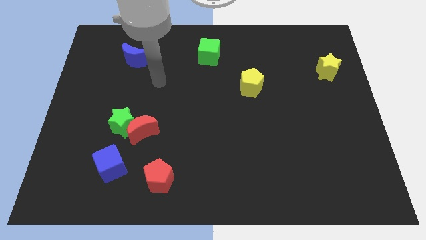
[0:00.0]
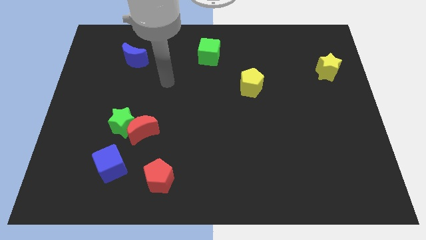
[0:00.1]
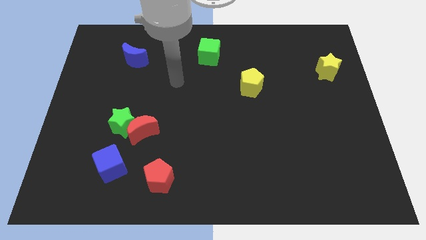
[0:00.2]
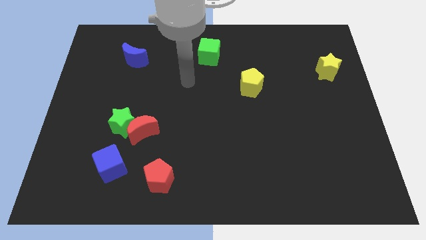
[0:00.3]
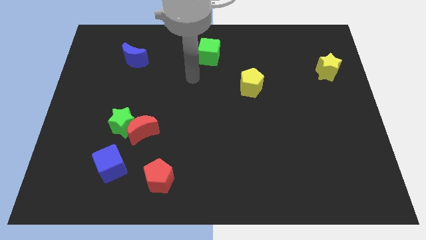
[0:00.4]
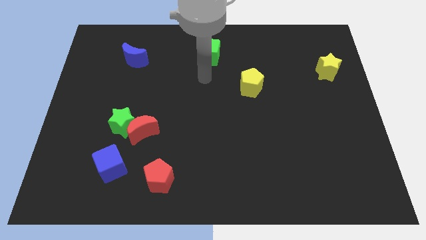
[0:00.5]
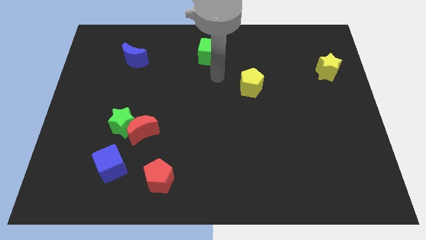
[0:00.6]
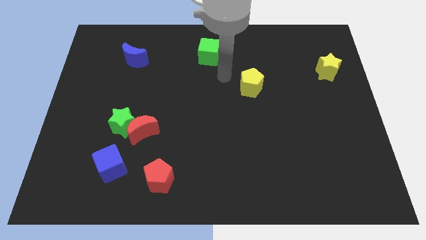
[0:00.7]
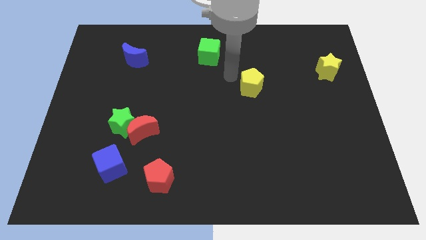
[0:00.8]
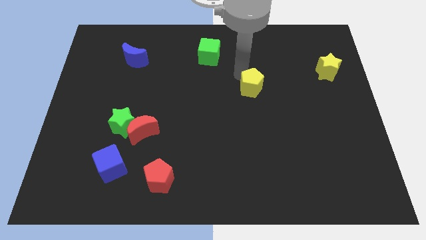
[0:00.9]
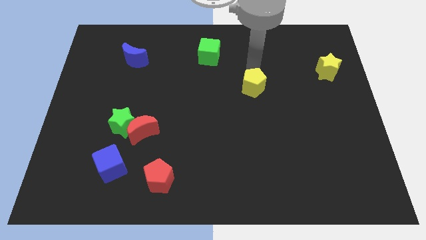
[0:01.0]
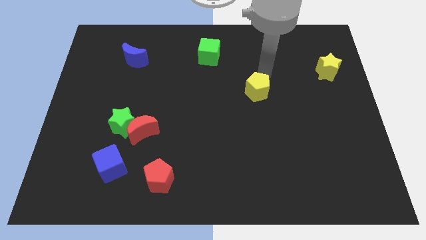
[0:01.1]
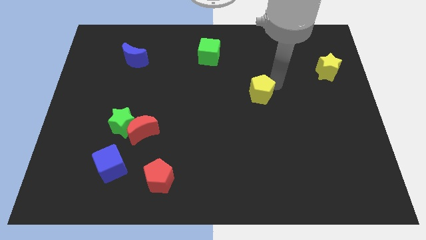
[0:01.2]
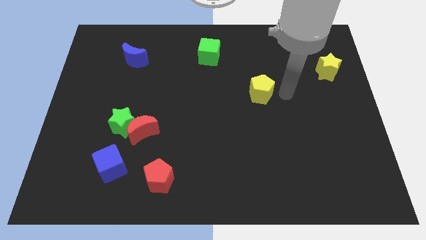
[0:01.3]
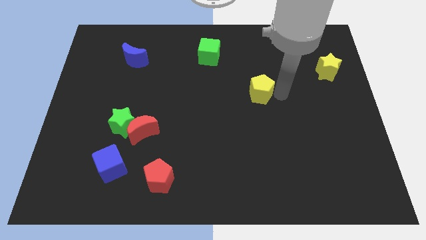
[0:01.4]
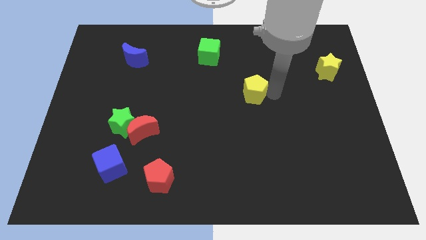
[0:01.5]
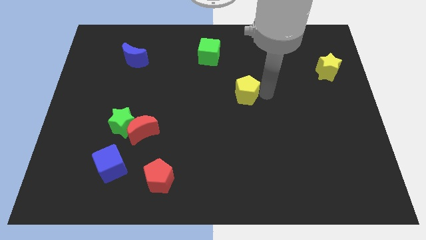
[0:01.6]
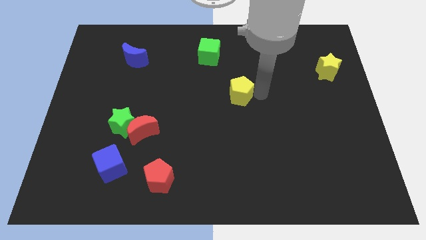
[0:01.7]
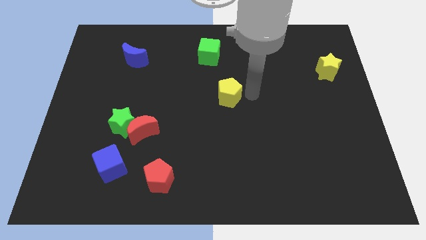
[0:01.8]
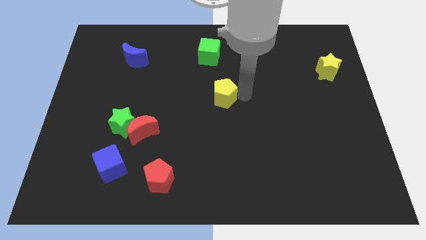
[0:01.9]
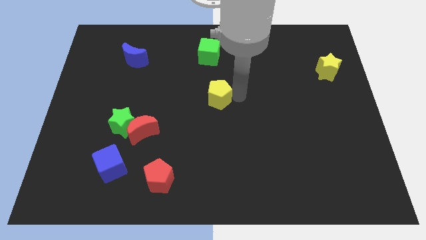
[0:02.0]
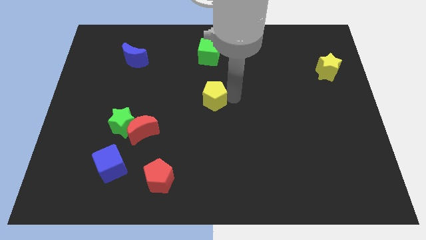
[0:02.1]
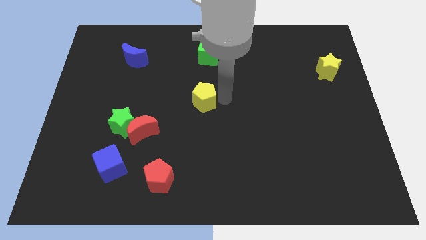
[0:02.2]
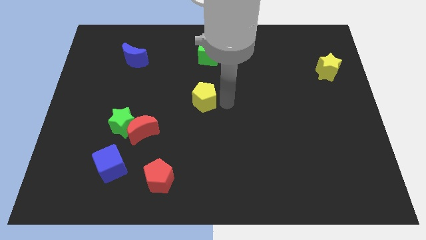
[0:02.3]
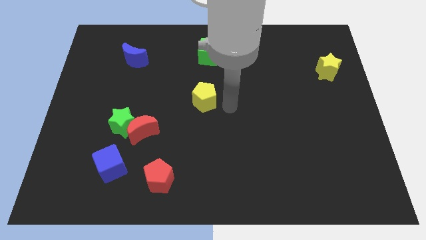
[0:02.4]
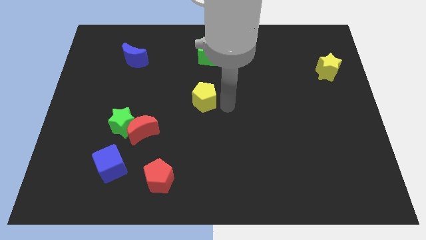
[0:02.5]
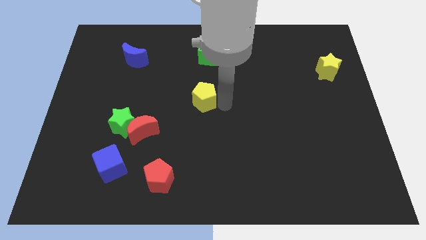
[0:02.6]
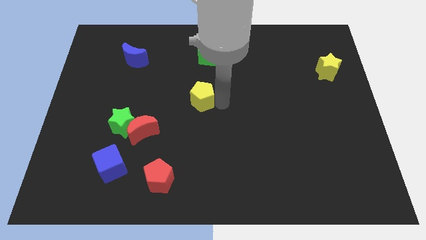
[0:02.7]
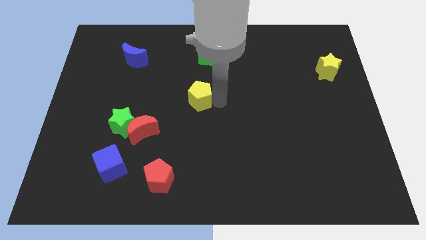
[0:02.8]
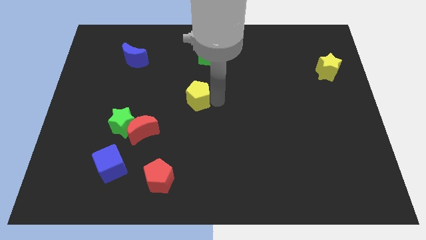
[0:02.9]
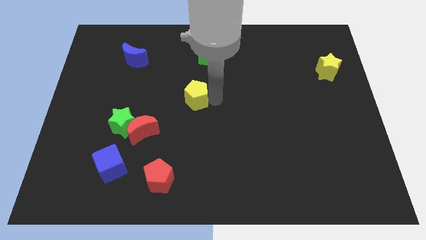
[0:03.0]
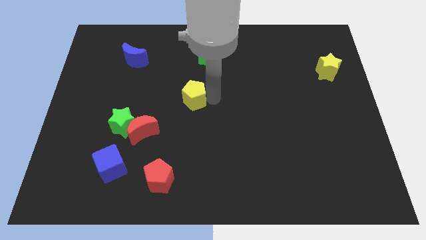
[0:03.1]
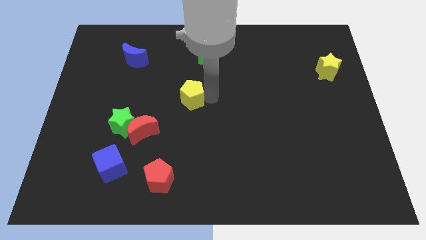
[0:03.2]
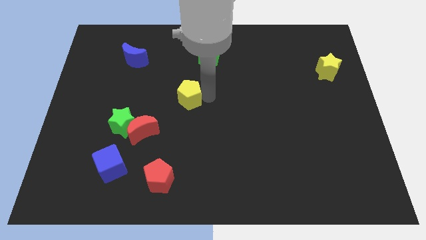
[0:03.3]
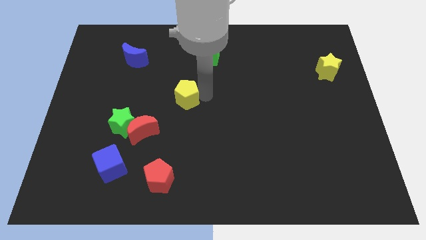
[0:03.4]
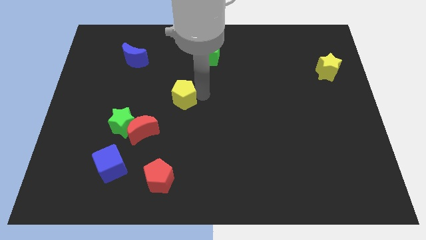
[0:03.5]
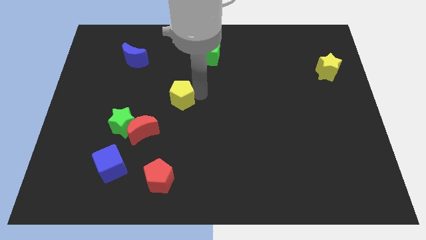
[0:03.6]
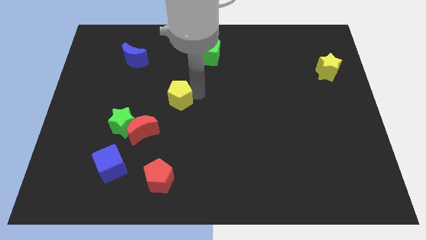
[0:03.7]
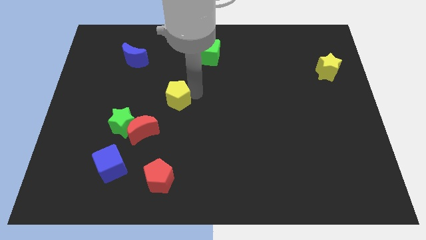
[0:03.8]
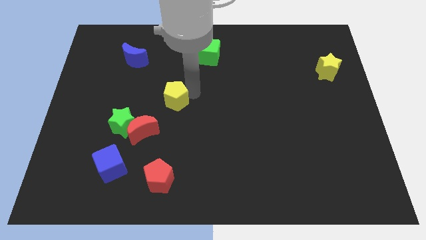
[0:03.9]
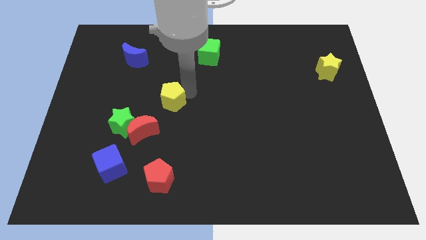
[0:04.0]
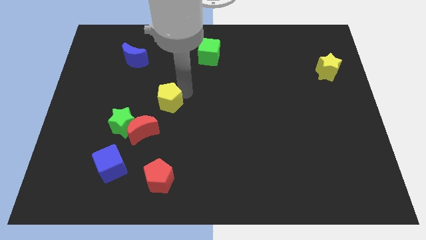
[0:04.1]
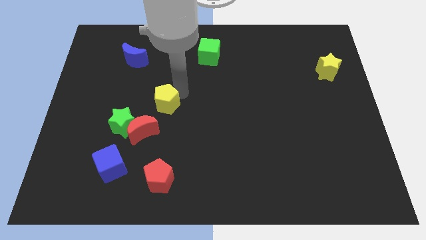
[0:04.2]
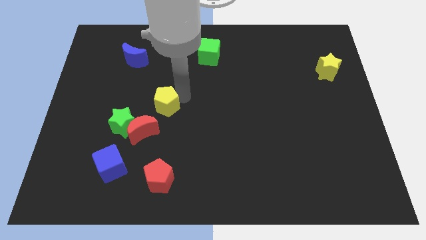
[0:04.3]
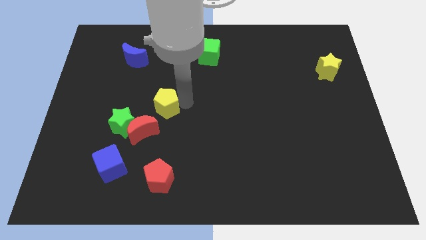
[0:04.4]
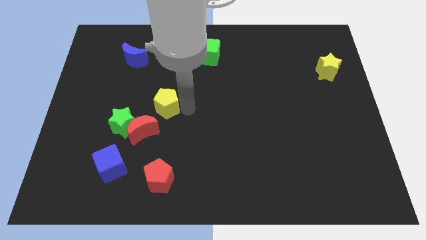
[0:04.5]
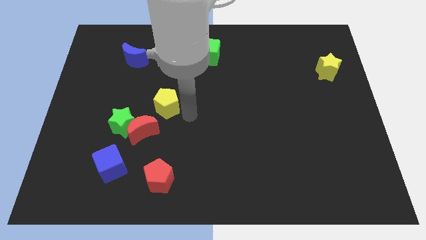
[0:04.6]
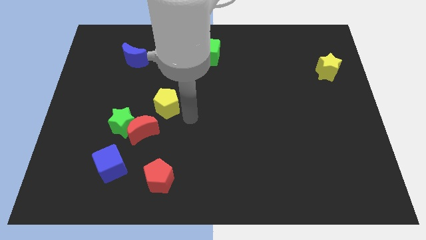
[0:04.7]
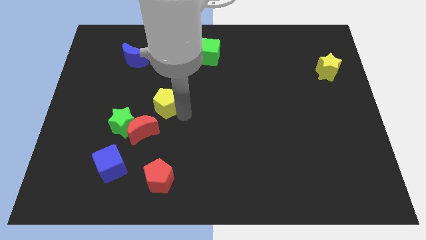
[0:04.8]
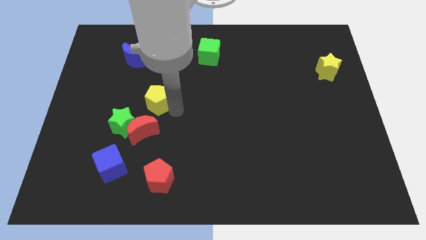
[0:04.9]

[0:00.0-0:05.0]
slide the yellow pentagon left

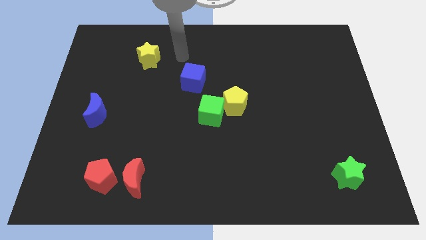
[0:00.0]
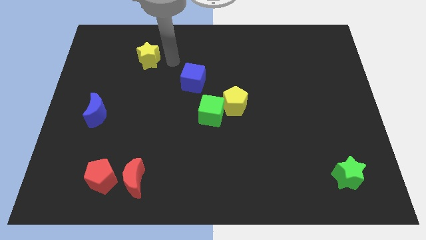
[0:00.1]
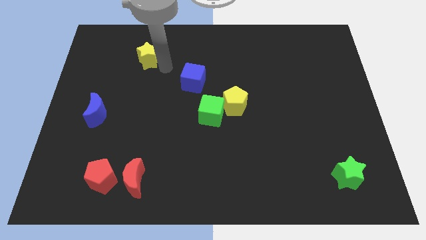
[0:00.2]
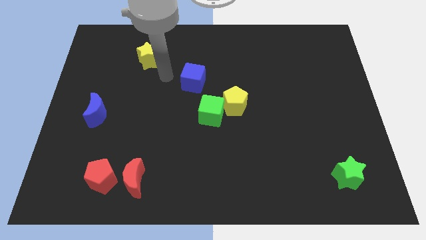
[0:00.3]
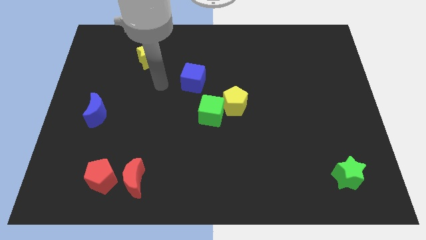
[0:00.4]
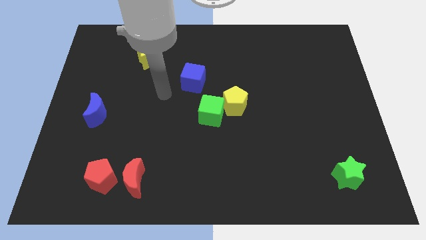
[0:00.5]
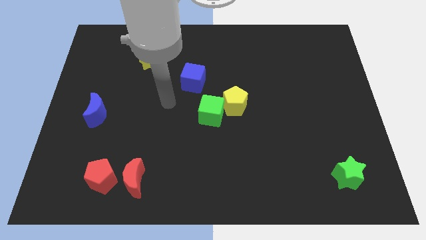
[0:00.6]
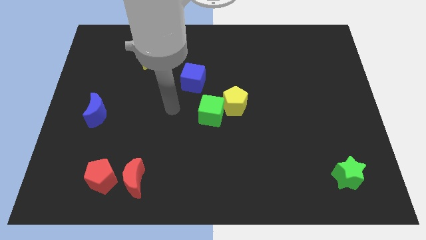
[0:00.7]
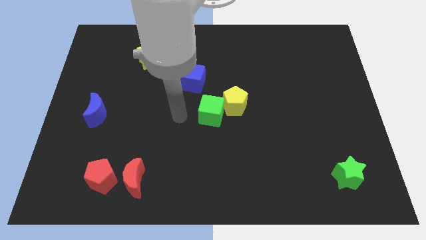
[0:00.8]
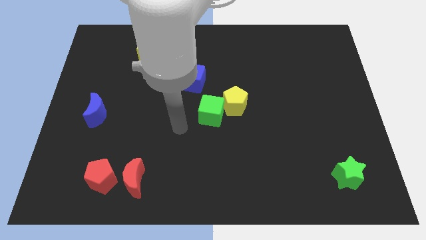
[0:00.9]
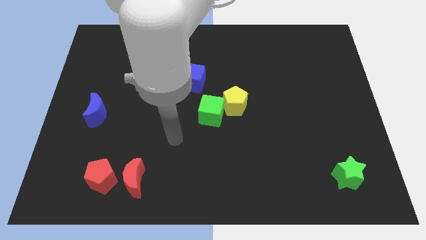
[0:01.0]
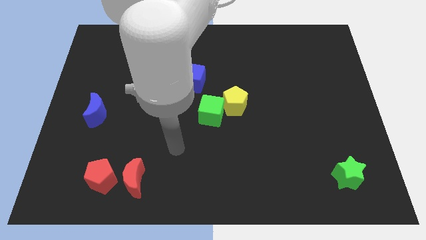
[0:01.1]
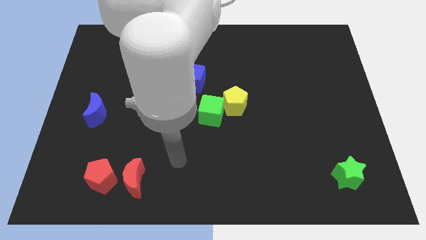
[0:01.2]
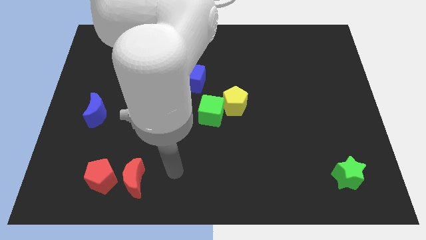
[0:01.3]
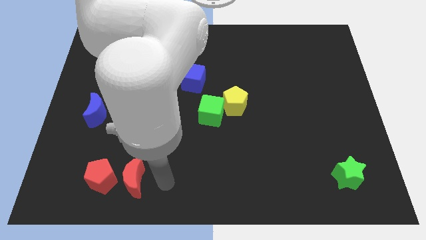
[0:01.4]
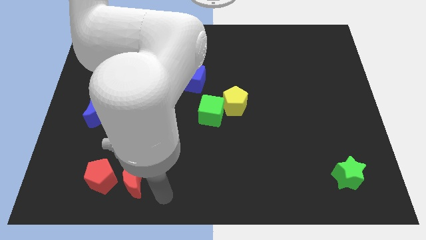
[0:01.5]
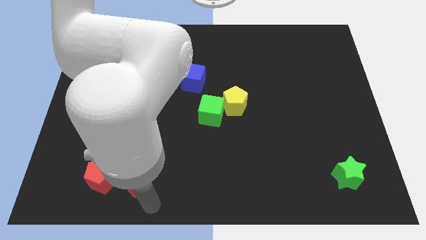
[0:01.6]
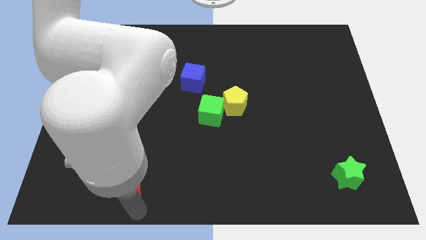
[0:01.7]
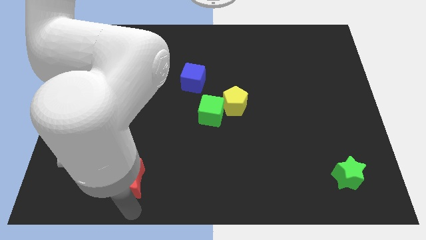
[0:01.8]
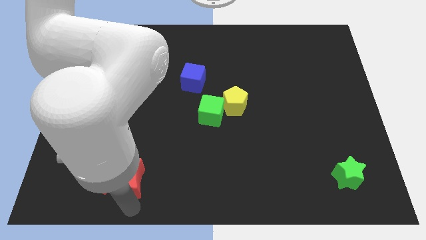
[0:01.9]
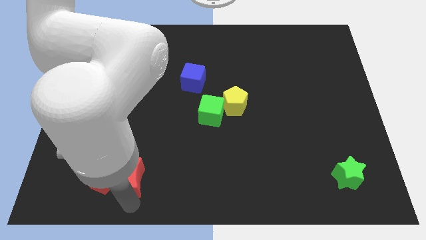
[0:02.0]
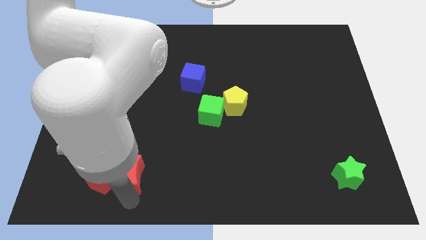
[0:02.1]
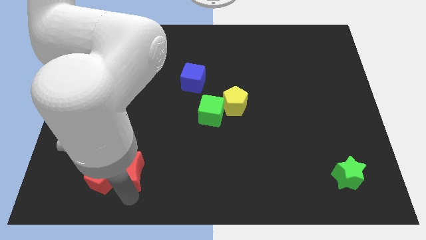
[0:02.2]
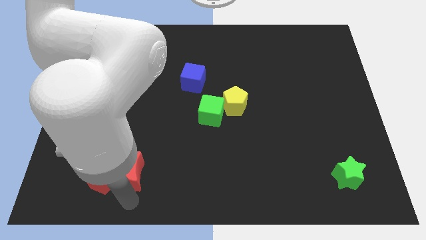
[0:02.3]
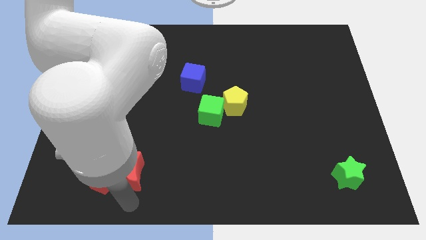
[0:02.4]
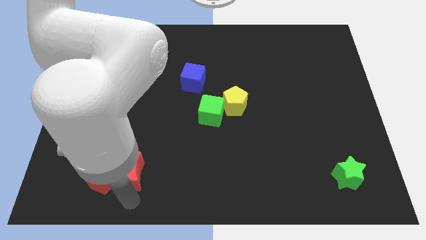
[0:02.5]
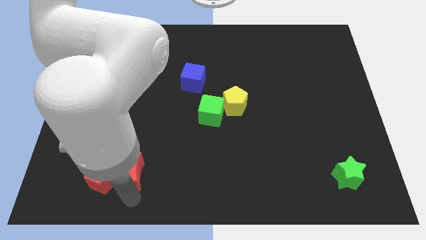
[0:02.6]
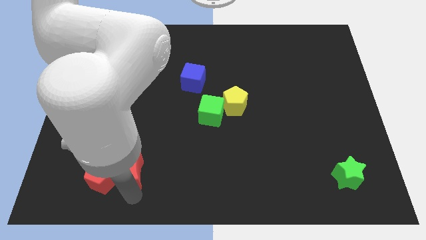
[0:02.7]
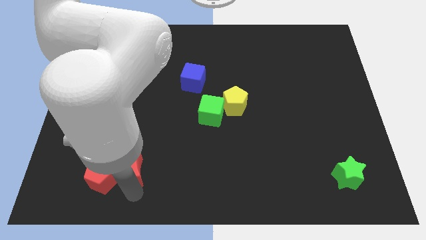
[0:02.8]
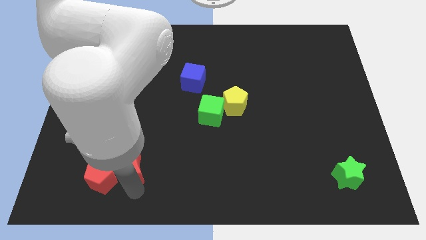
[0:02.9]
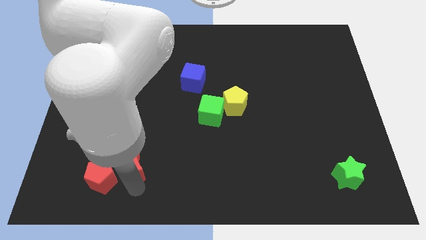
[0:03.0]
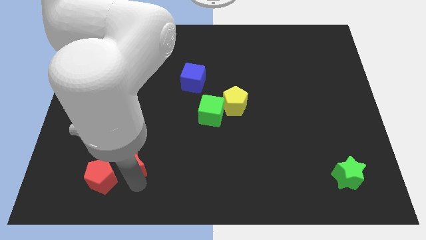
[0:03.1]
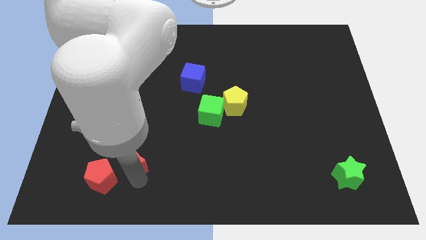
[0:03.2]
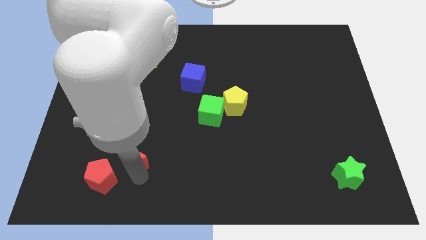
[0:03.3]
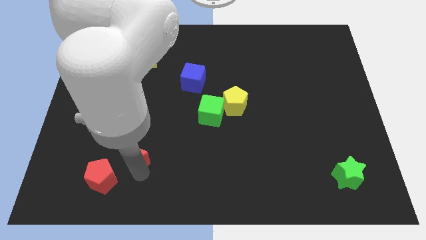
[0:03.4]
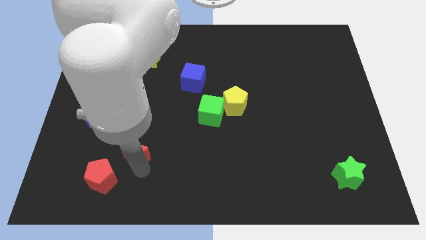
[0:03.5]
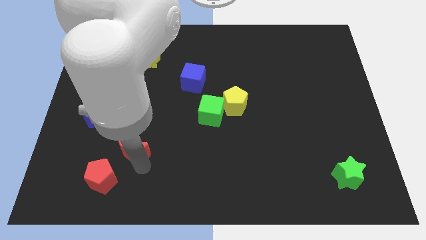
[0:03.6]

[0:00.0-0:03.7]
slide the red moon upwards somewhat
